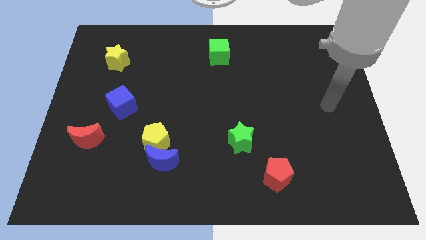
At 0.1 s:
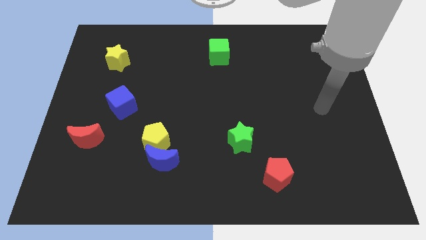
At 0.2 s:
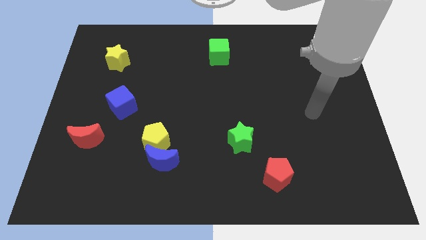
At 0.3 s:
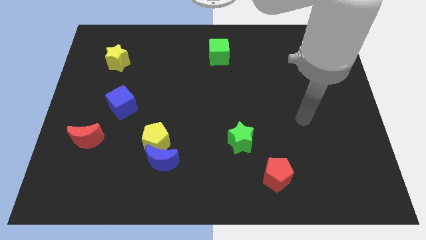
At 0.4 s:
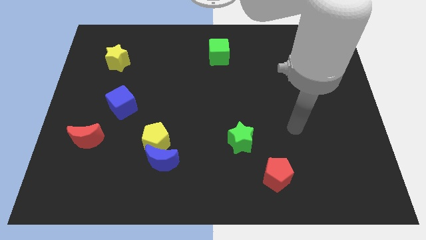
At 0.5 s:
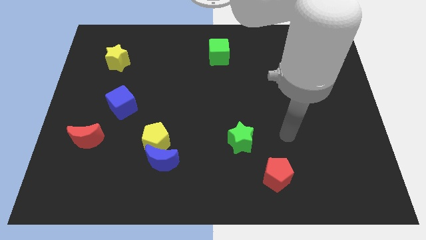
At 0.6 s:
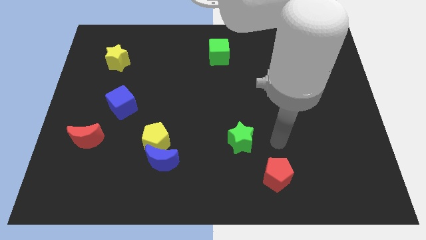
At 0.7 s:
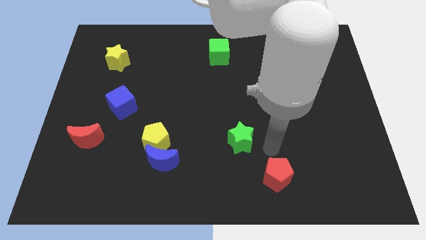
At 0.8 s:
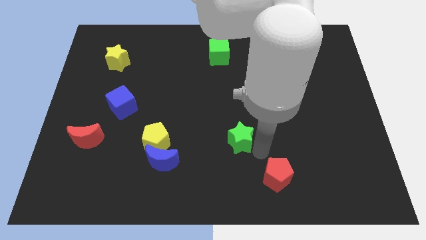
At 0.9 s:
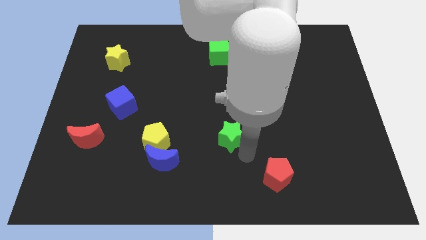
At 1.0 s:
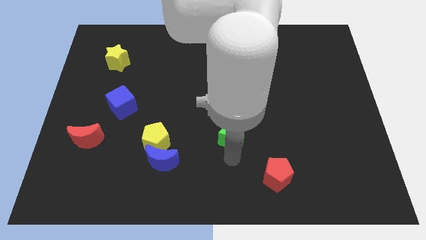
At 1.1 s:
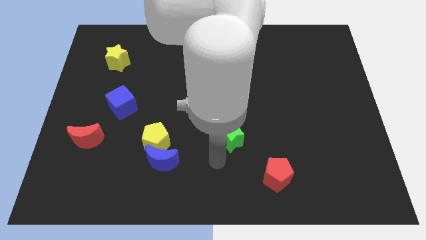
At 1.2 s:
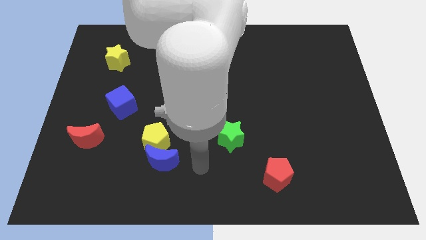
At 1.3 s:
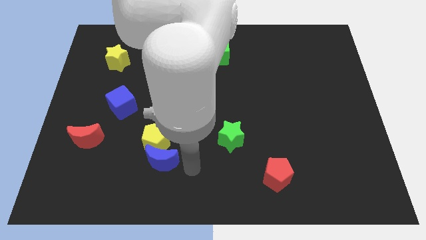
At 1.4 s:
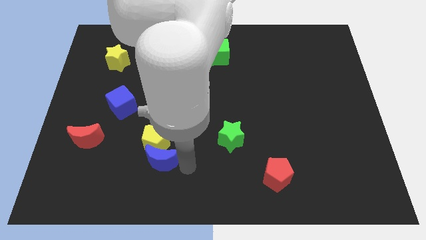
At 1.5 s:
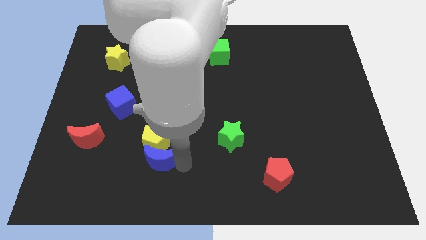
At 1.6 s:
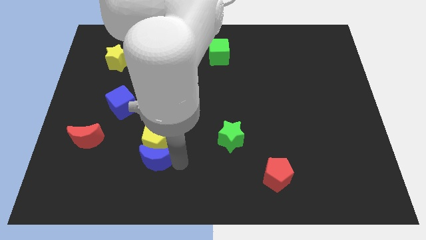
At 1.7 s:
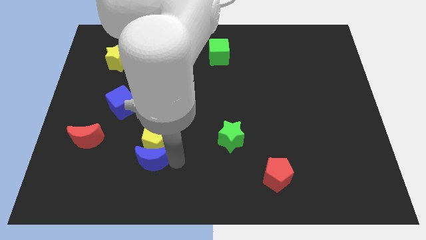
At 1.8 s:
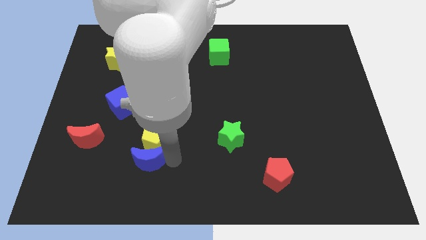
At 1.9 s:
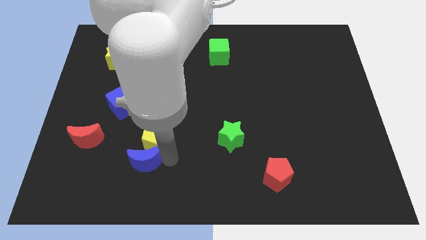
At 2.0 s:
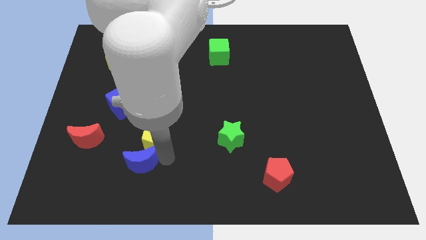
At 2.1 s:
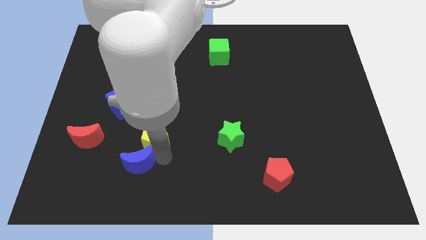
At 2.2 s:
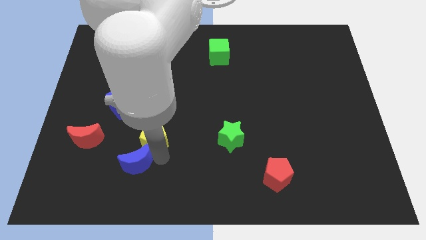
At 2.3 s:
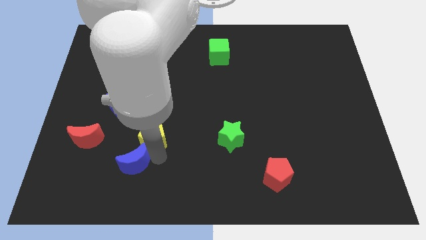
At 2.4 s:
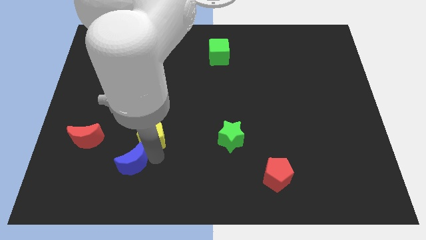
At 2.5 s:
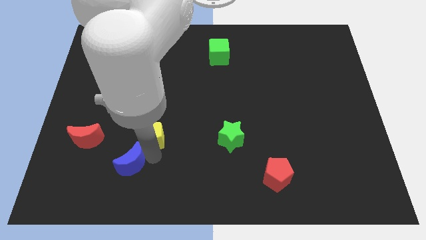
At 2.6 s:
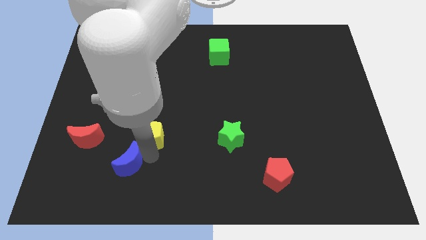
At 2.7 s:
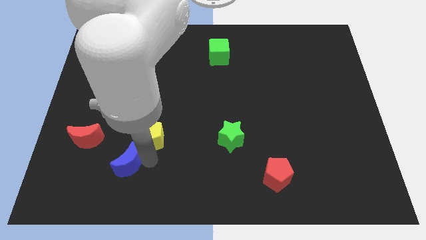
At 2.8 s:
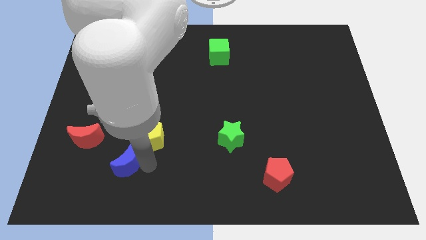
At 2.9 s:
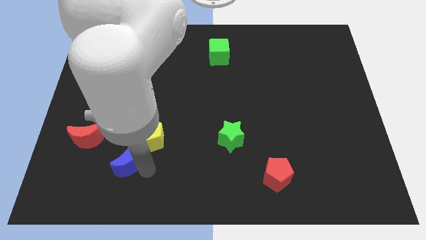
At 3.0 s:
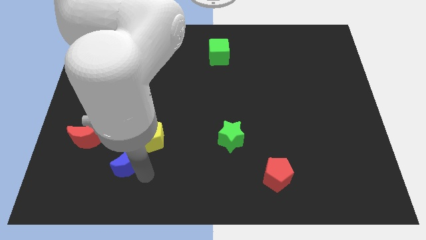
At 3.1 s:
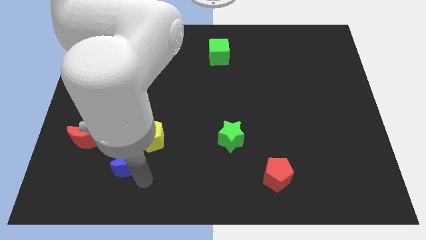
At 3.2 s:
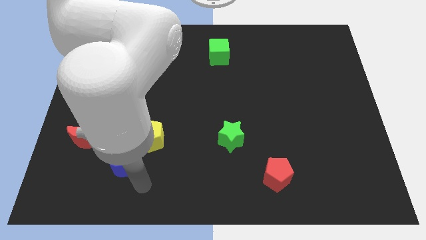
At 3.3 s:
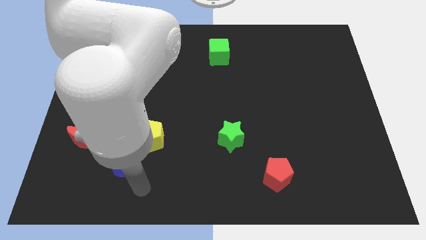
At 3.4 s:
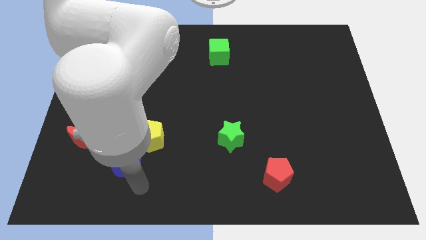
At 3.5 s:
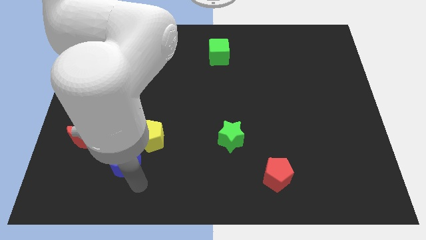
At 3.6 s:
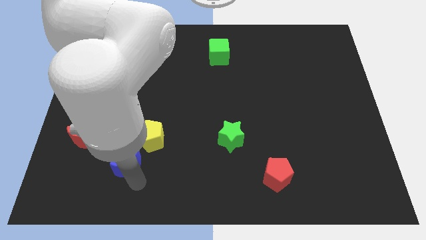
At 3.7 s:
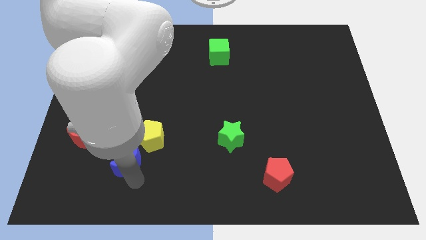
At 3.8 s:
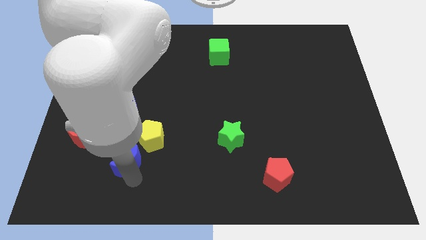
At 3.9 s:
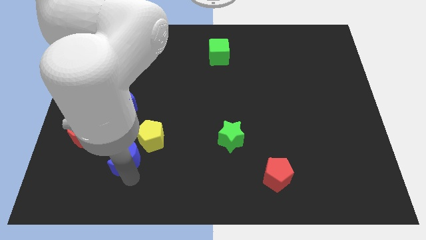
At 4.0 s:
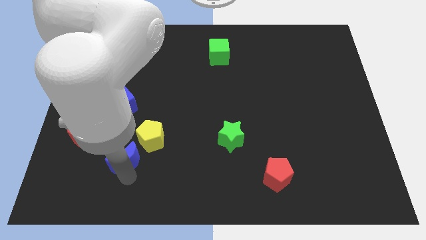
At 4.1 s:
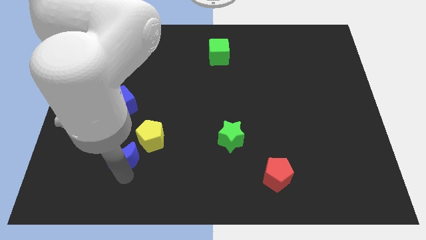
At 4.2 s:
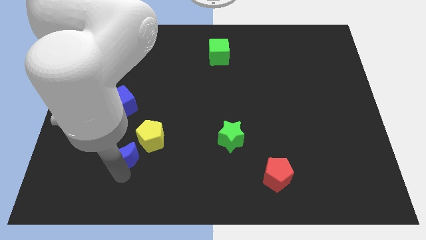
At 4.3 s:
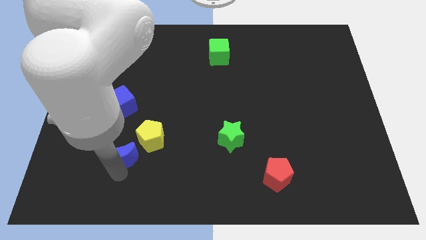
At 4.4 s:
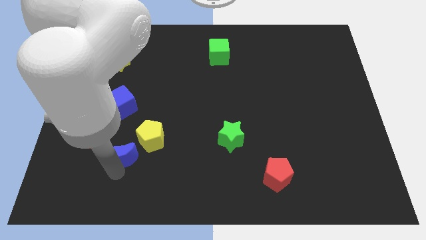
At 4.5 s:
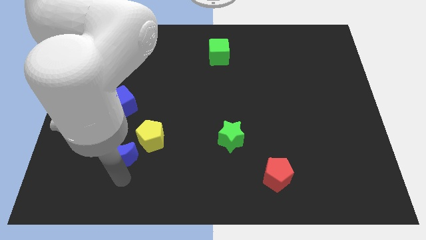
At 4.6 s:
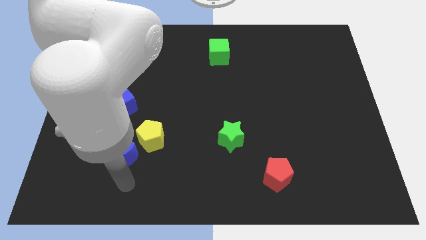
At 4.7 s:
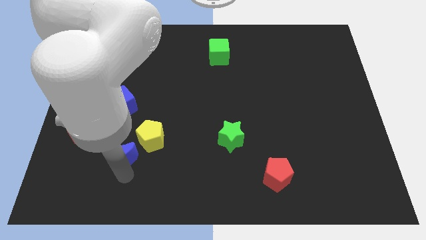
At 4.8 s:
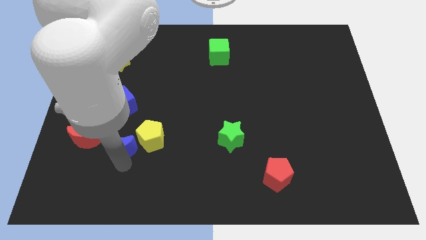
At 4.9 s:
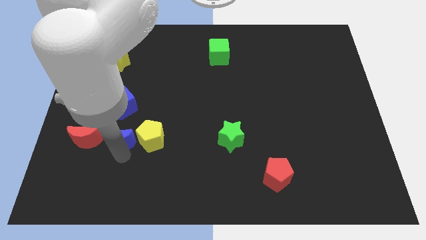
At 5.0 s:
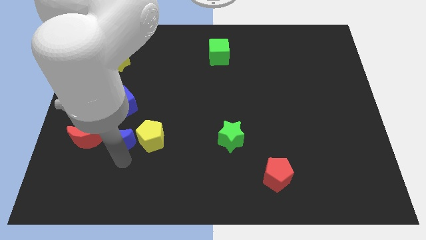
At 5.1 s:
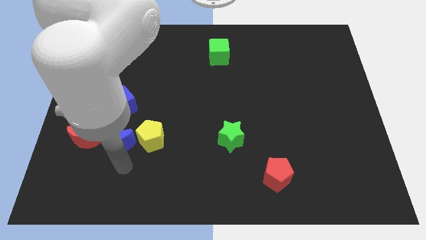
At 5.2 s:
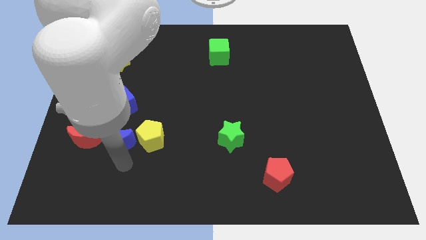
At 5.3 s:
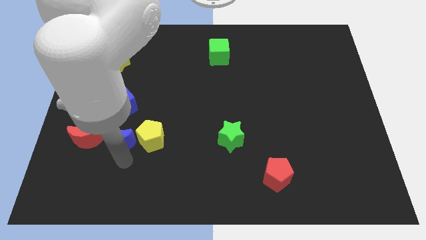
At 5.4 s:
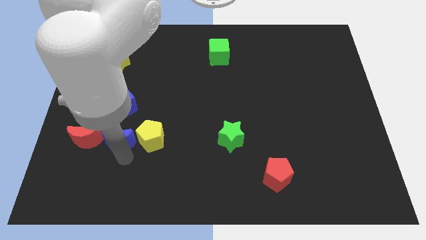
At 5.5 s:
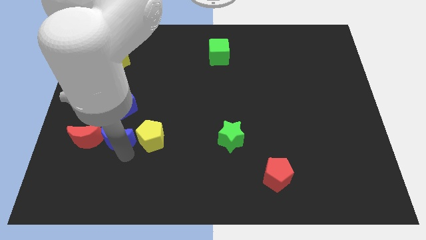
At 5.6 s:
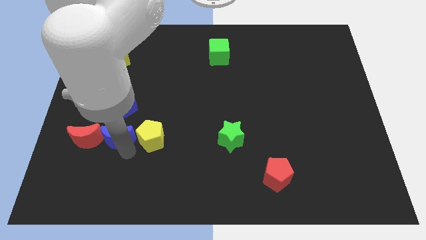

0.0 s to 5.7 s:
put the blue moon diagonally up and to the right of the red moon

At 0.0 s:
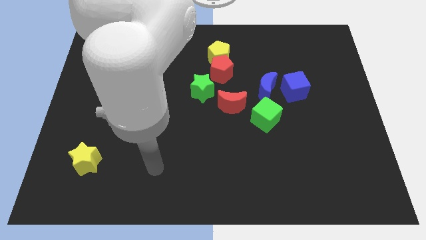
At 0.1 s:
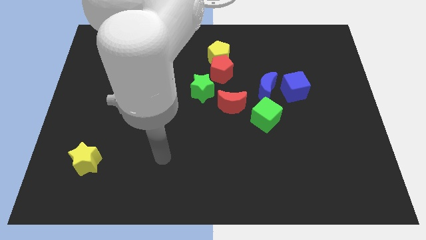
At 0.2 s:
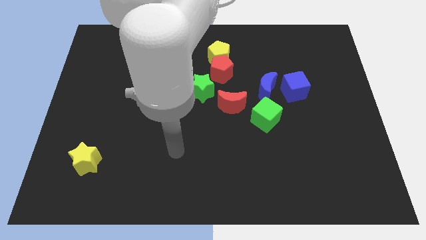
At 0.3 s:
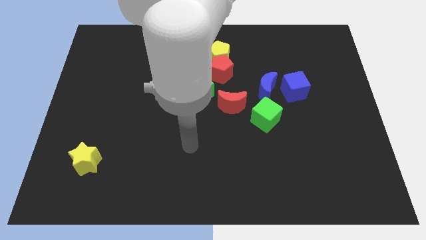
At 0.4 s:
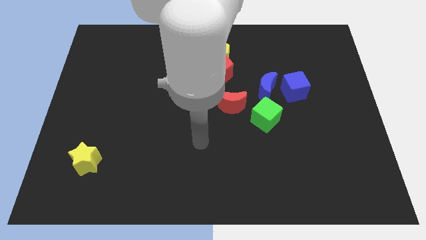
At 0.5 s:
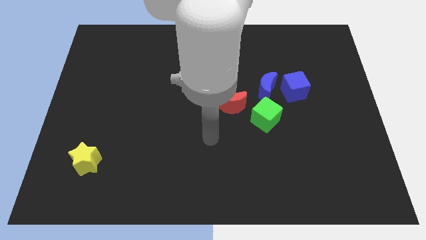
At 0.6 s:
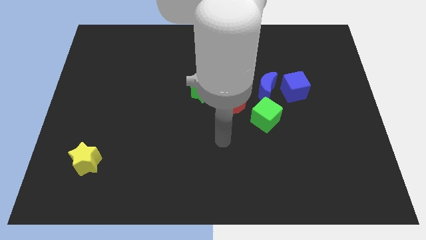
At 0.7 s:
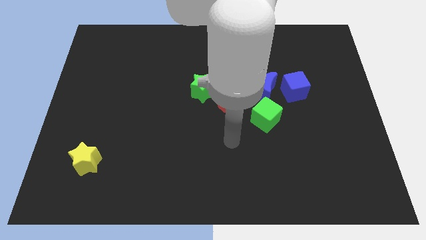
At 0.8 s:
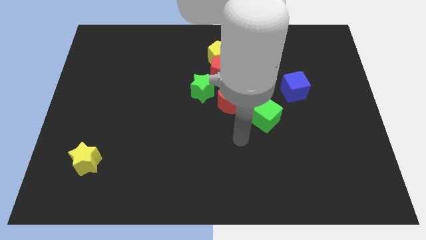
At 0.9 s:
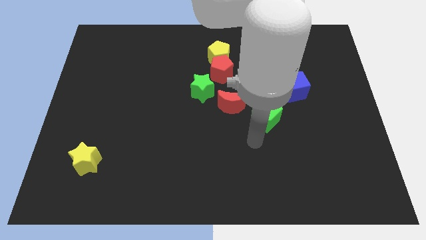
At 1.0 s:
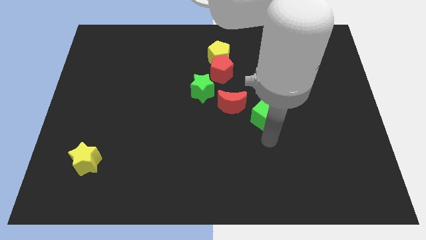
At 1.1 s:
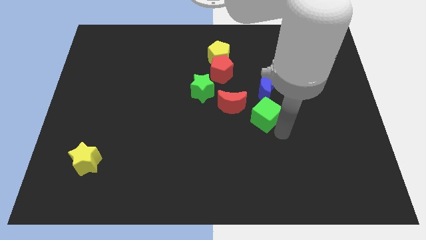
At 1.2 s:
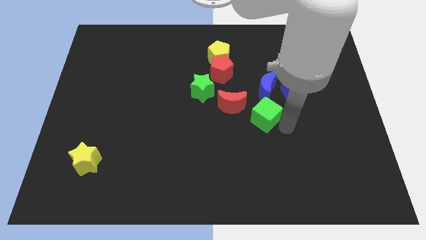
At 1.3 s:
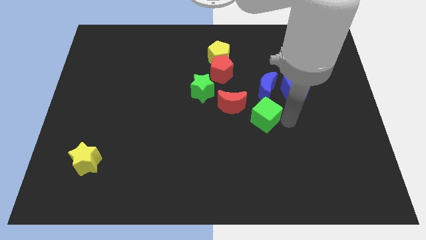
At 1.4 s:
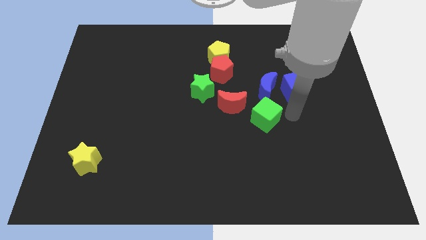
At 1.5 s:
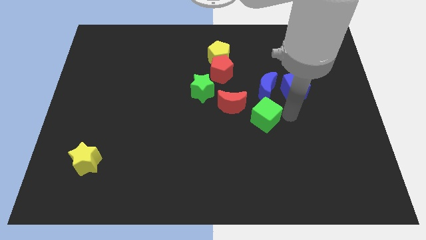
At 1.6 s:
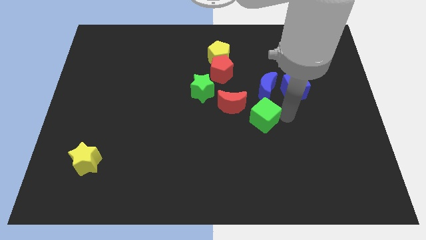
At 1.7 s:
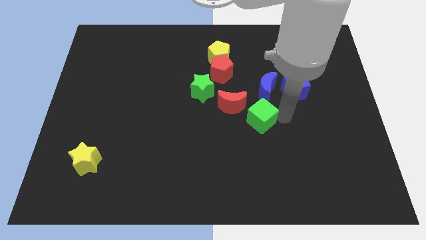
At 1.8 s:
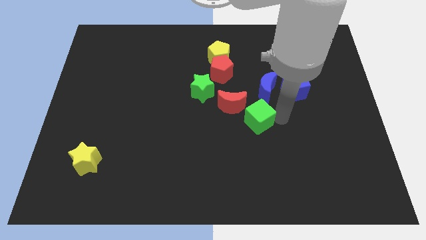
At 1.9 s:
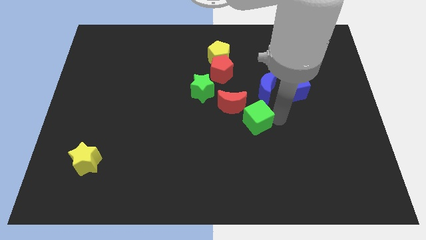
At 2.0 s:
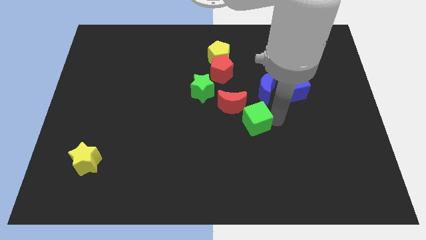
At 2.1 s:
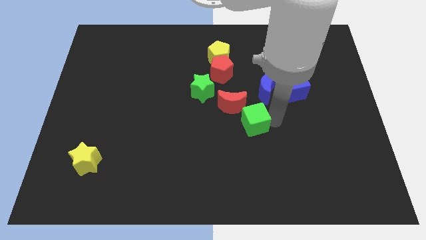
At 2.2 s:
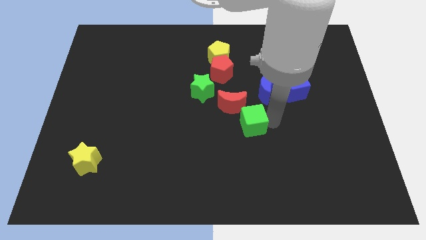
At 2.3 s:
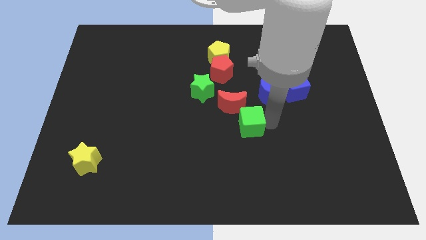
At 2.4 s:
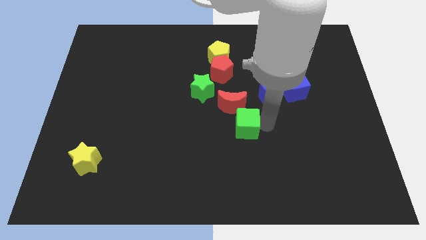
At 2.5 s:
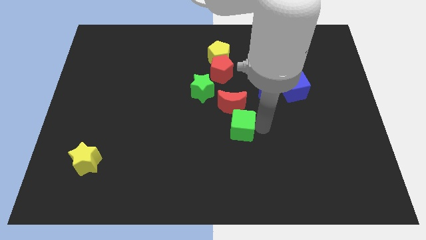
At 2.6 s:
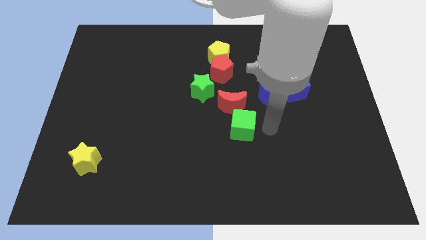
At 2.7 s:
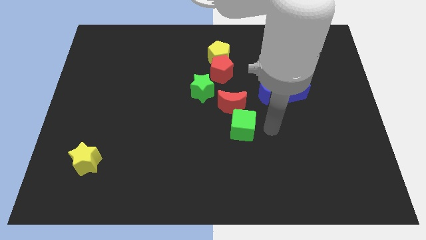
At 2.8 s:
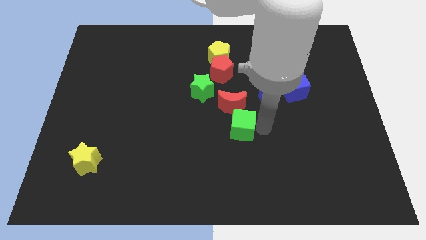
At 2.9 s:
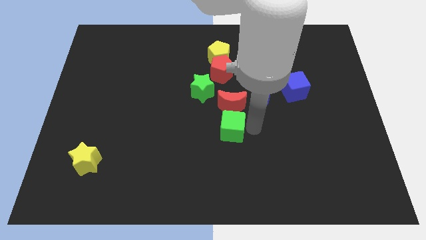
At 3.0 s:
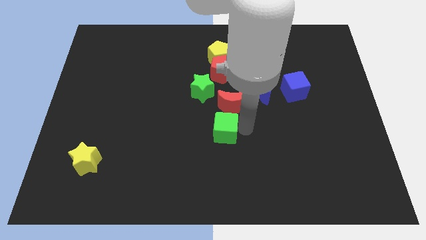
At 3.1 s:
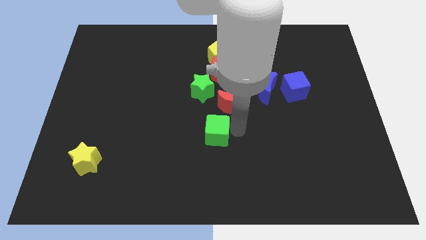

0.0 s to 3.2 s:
move the green cube below the green star
